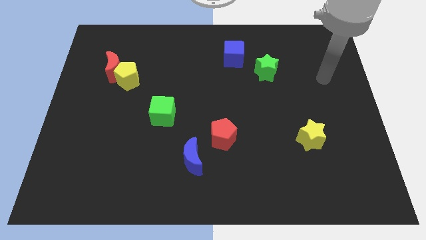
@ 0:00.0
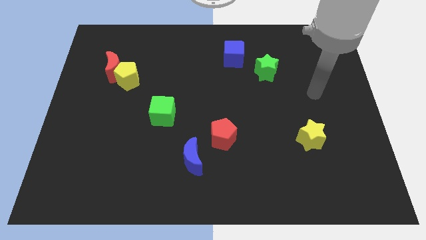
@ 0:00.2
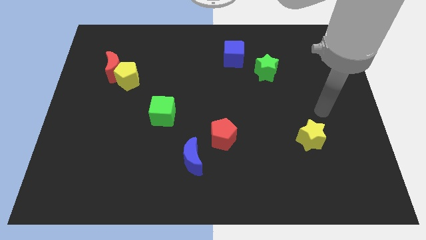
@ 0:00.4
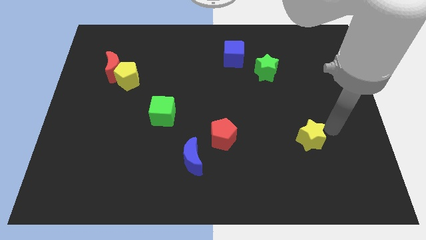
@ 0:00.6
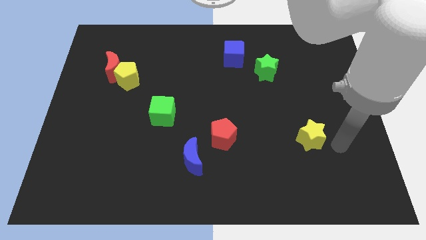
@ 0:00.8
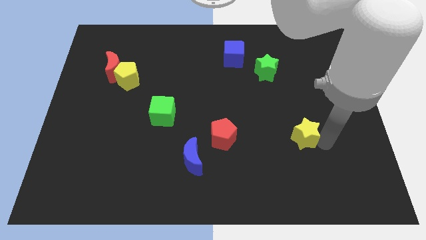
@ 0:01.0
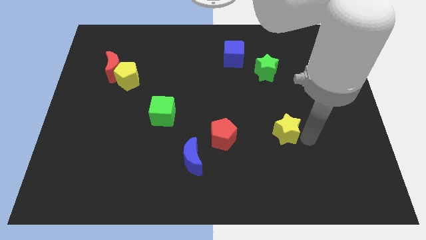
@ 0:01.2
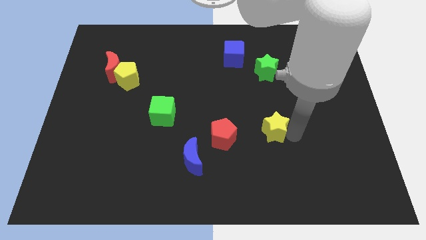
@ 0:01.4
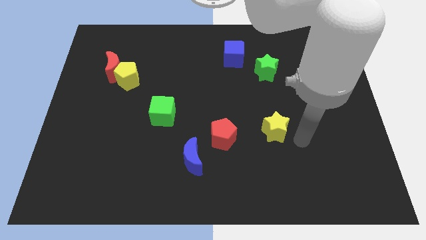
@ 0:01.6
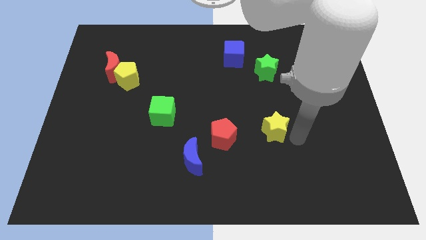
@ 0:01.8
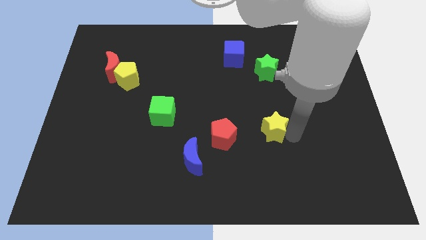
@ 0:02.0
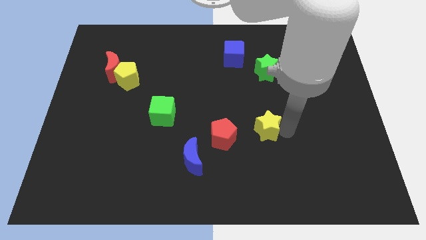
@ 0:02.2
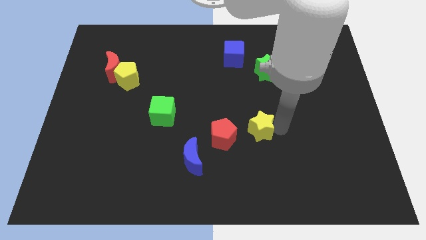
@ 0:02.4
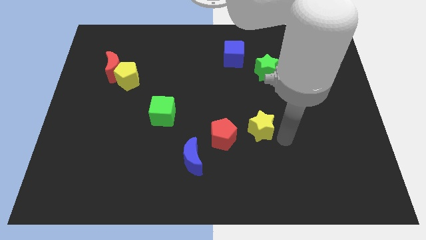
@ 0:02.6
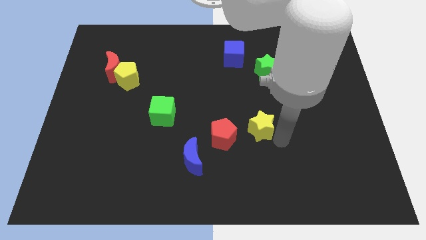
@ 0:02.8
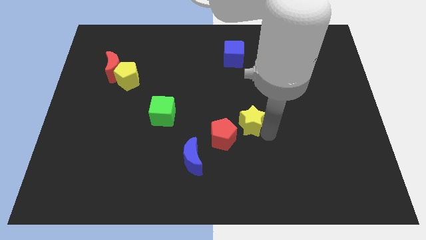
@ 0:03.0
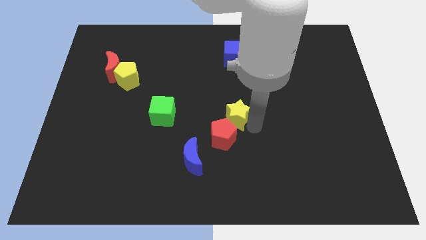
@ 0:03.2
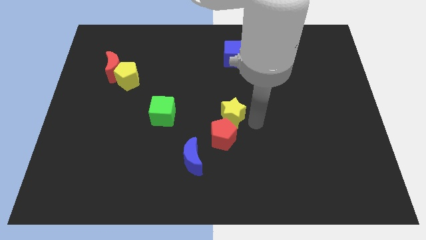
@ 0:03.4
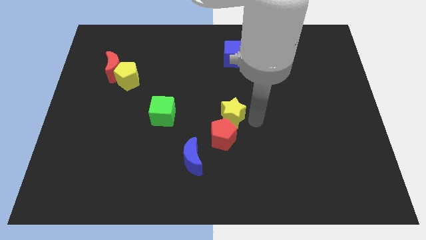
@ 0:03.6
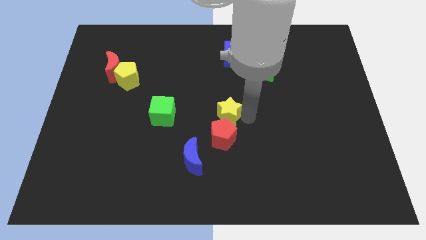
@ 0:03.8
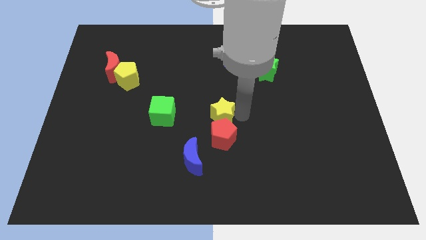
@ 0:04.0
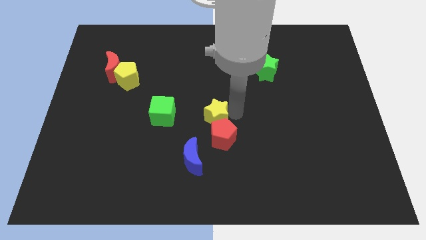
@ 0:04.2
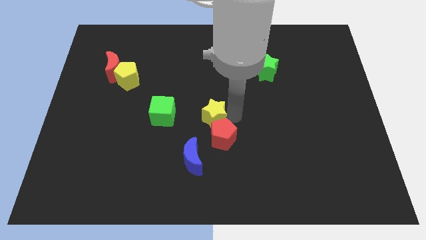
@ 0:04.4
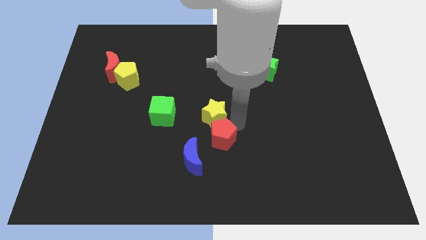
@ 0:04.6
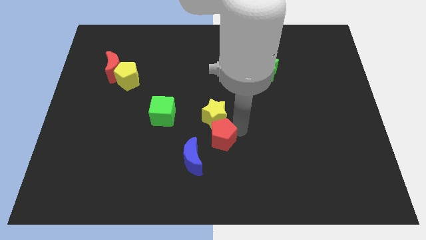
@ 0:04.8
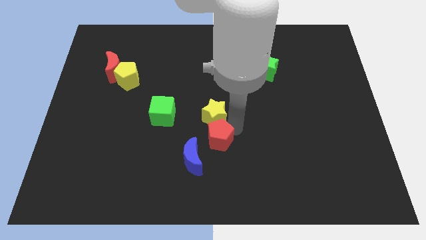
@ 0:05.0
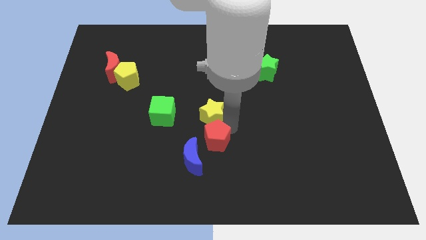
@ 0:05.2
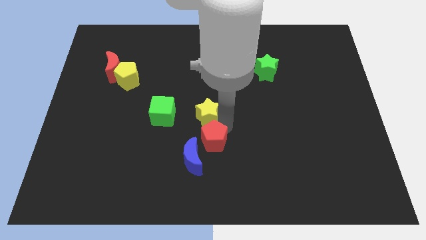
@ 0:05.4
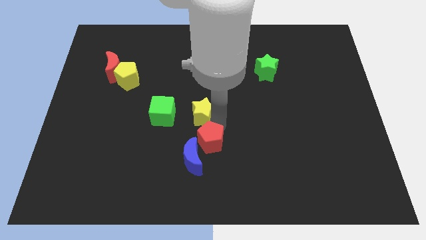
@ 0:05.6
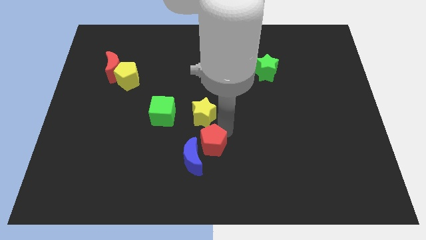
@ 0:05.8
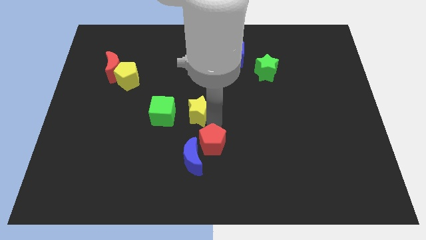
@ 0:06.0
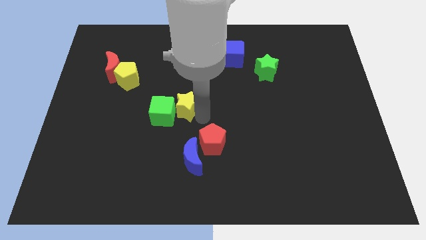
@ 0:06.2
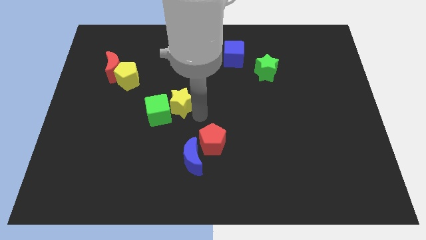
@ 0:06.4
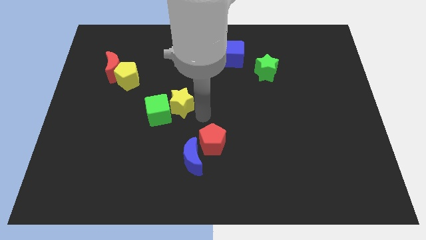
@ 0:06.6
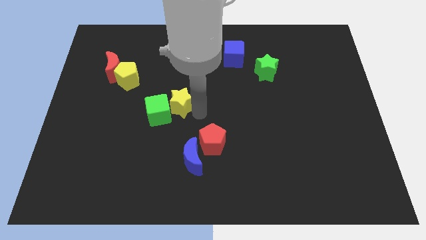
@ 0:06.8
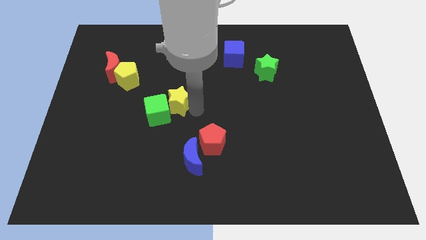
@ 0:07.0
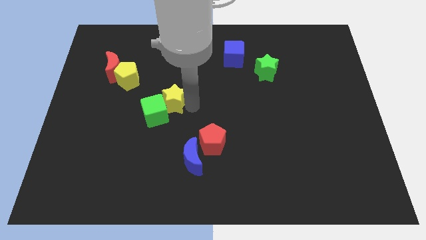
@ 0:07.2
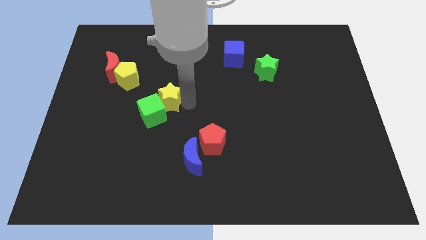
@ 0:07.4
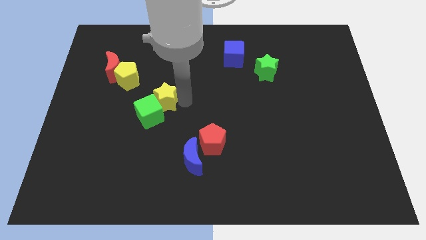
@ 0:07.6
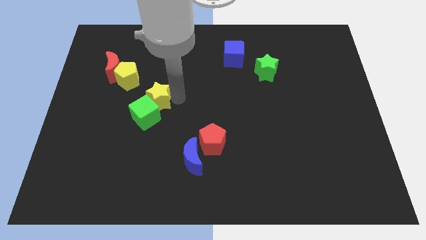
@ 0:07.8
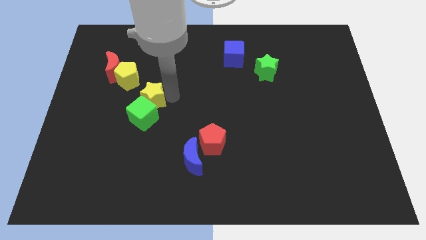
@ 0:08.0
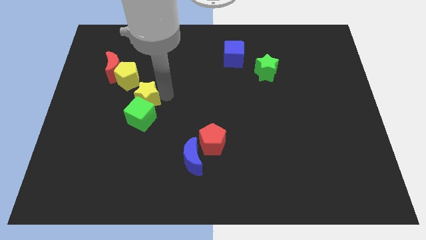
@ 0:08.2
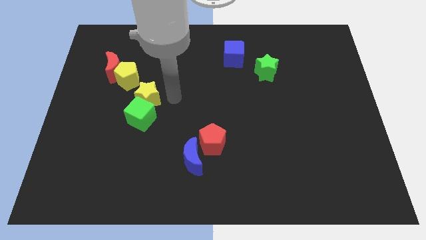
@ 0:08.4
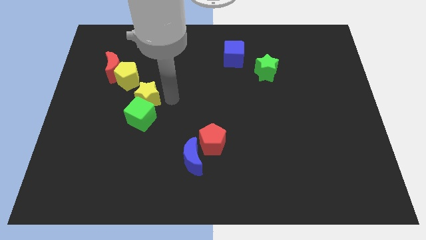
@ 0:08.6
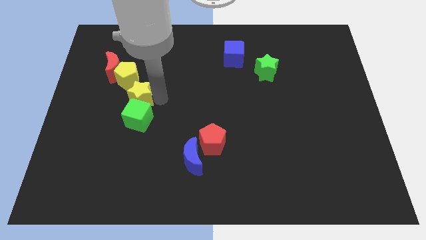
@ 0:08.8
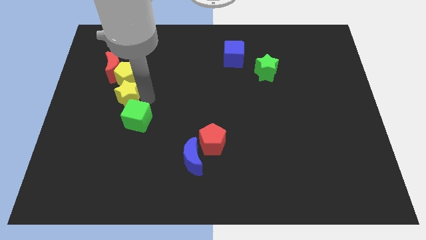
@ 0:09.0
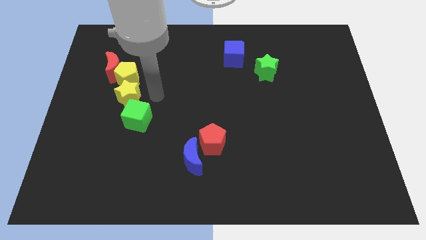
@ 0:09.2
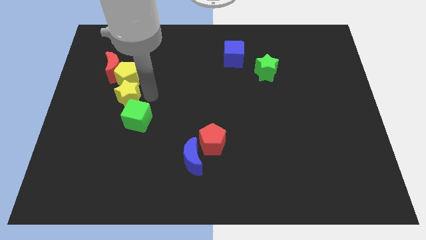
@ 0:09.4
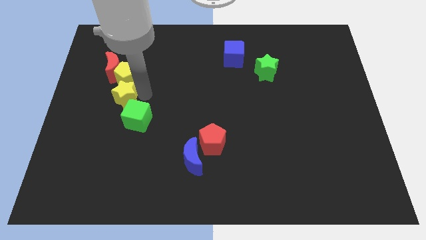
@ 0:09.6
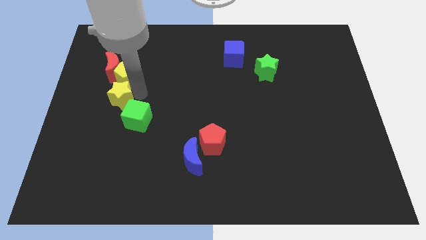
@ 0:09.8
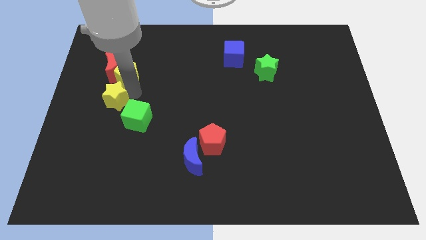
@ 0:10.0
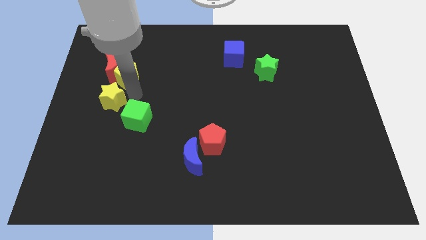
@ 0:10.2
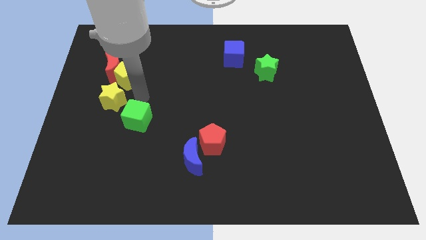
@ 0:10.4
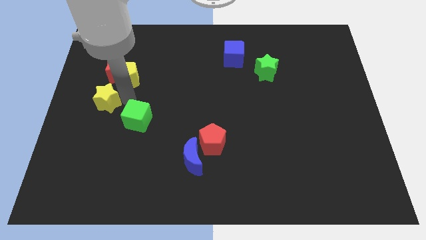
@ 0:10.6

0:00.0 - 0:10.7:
move the yellow star to the left side of the board

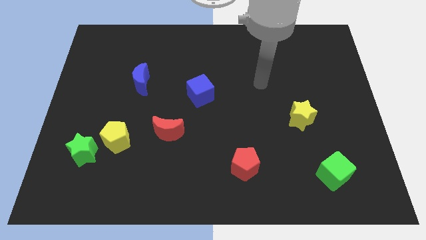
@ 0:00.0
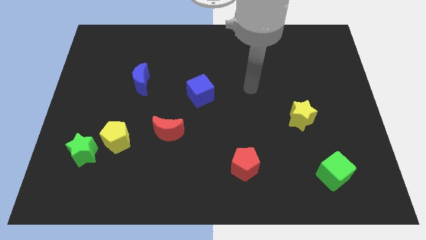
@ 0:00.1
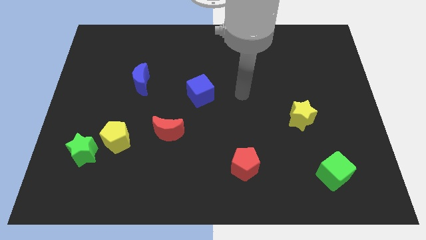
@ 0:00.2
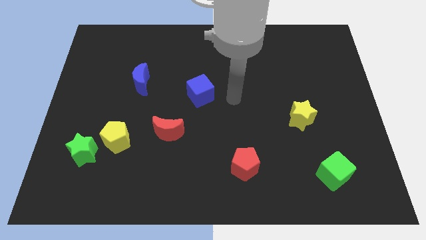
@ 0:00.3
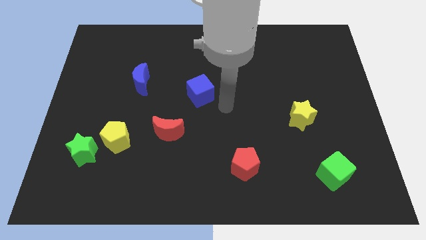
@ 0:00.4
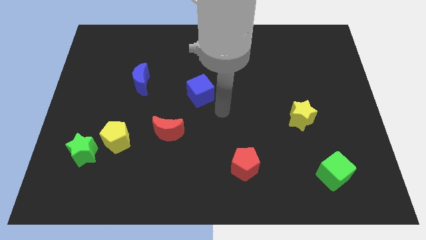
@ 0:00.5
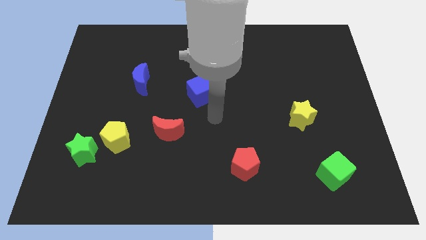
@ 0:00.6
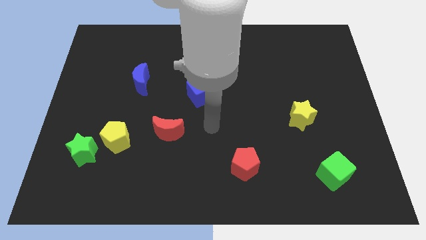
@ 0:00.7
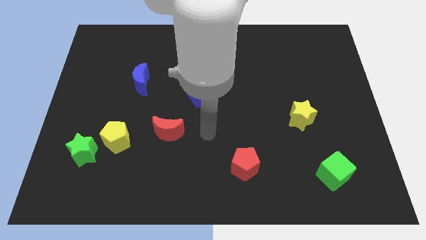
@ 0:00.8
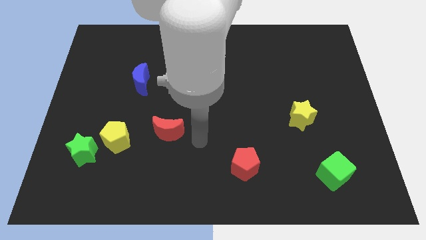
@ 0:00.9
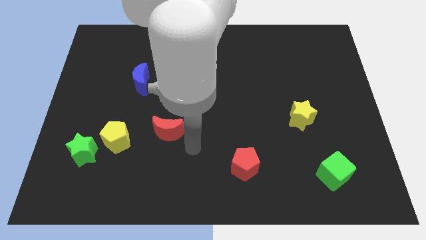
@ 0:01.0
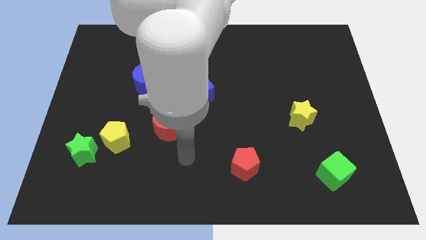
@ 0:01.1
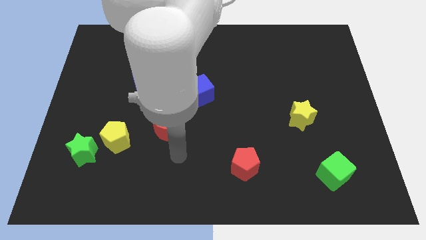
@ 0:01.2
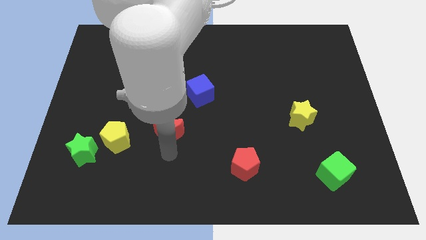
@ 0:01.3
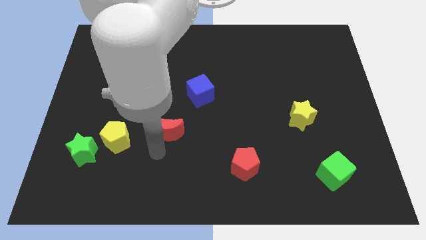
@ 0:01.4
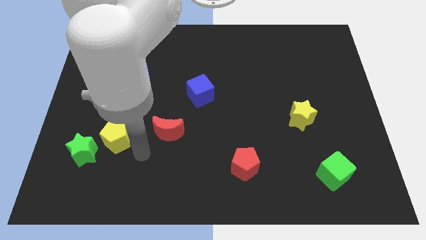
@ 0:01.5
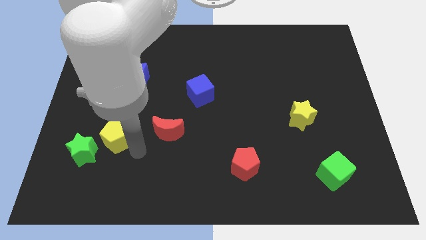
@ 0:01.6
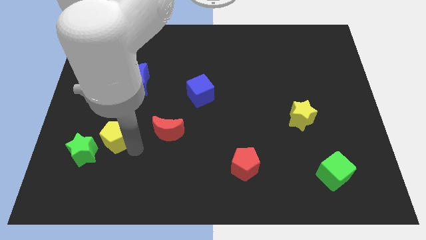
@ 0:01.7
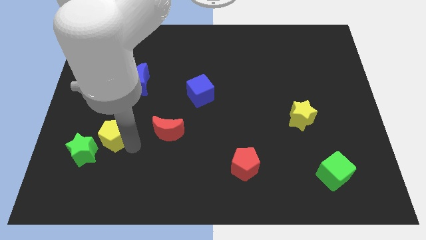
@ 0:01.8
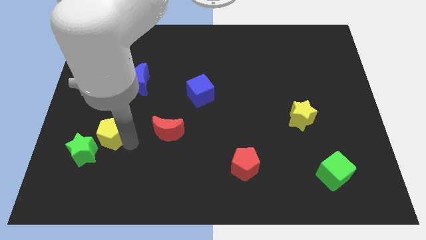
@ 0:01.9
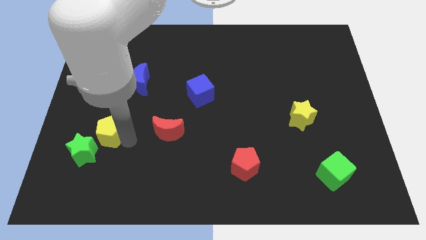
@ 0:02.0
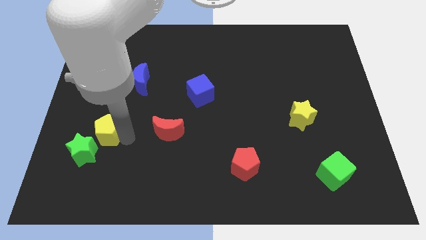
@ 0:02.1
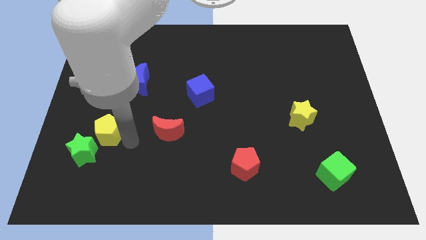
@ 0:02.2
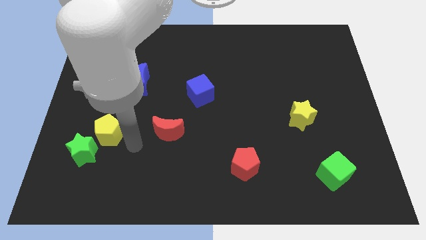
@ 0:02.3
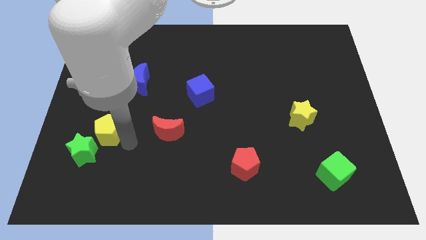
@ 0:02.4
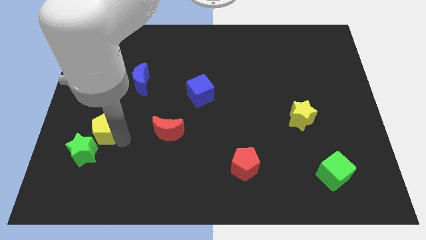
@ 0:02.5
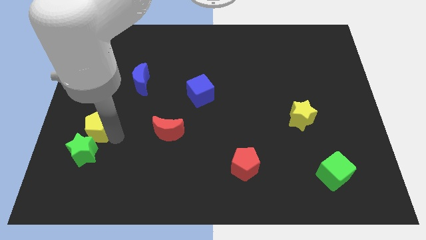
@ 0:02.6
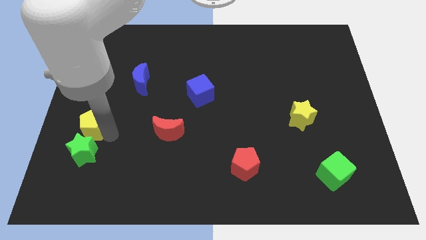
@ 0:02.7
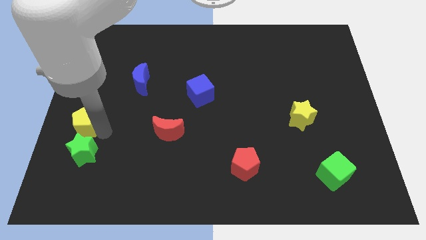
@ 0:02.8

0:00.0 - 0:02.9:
move the yellow pentagon to the left side
